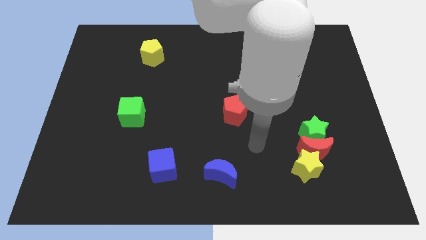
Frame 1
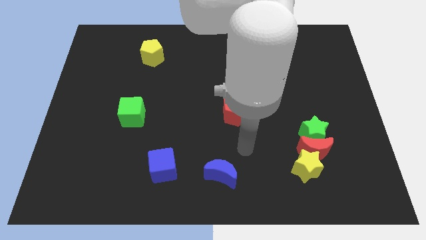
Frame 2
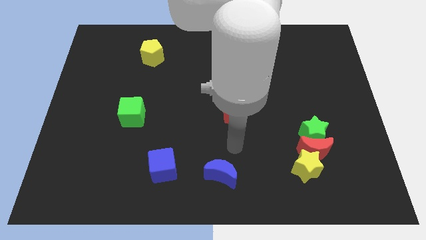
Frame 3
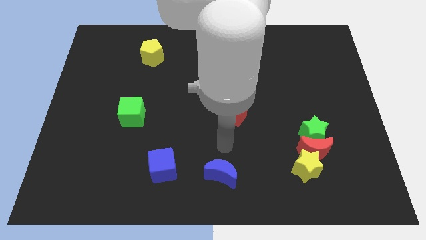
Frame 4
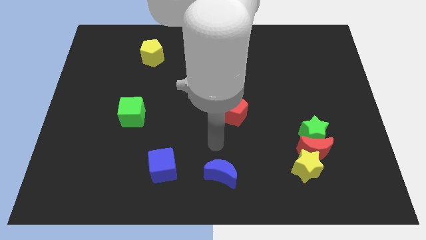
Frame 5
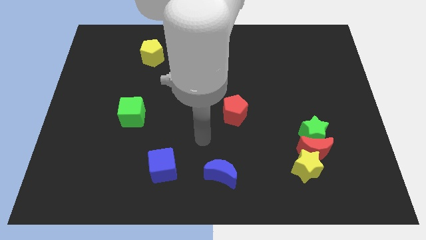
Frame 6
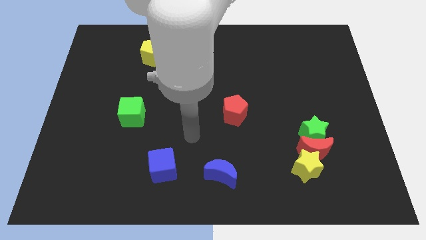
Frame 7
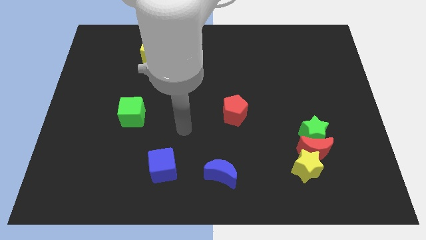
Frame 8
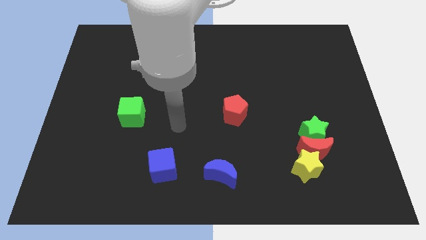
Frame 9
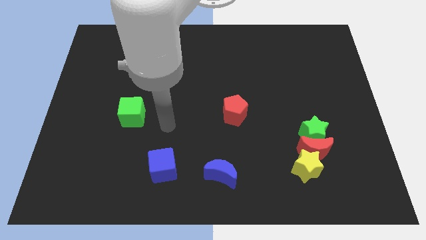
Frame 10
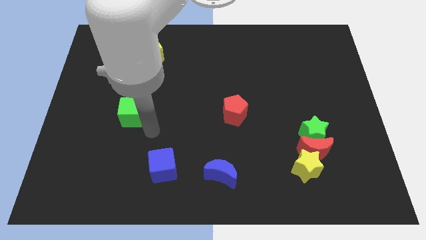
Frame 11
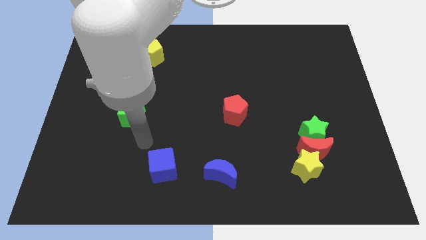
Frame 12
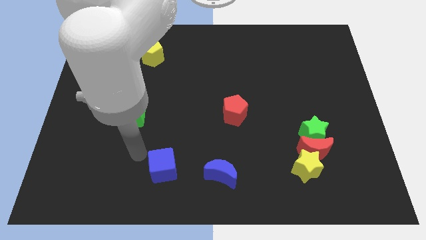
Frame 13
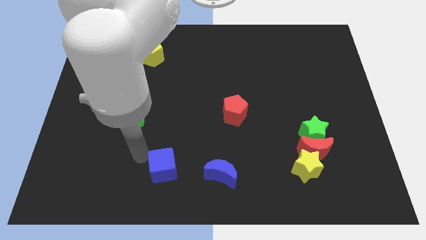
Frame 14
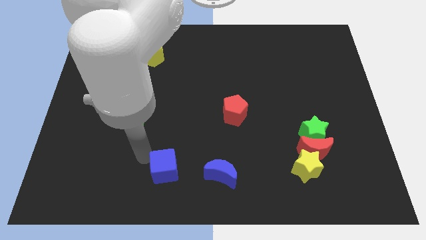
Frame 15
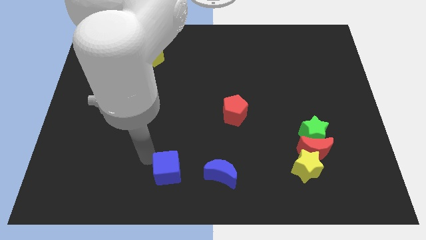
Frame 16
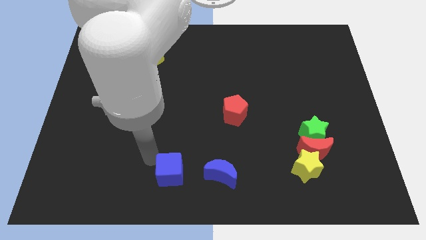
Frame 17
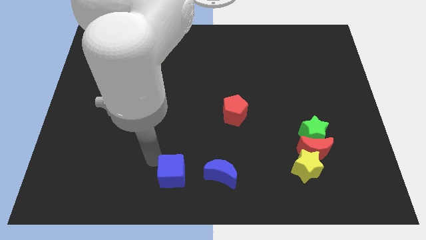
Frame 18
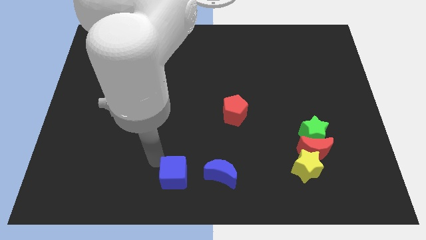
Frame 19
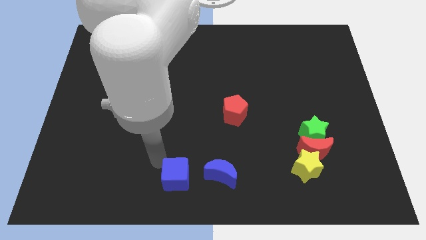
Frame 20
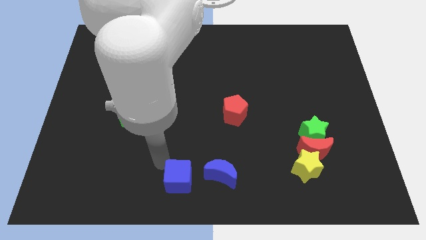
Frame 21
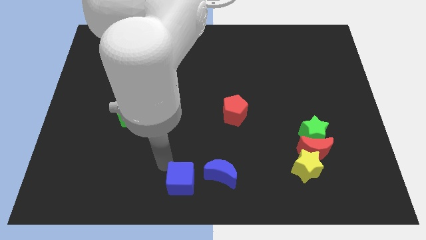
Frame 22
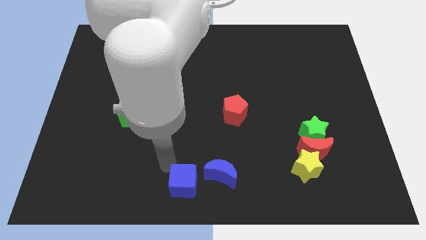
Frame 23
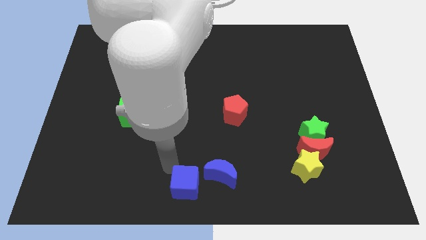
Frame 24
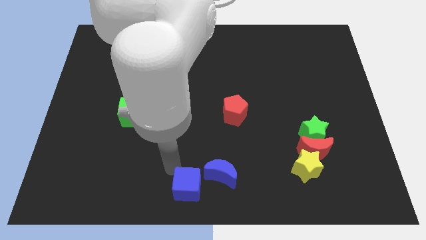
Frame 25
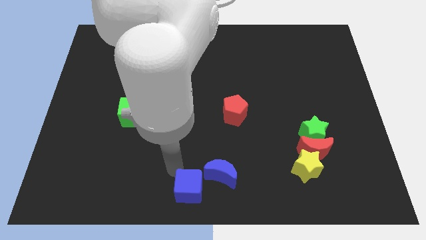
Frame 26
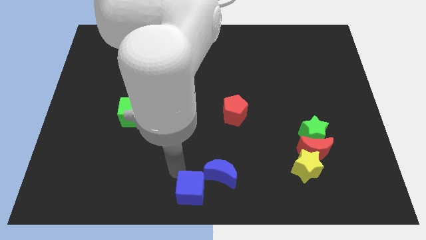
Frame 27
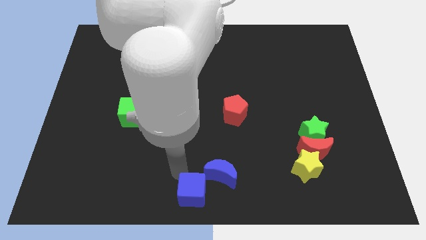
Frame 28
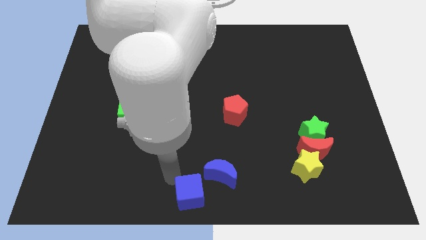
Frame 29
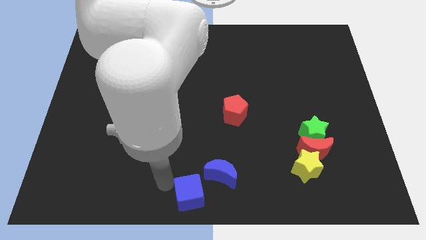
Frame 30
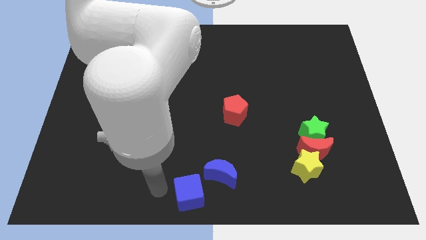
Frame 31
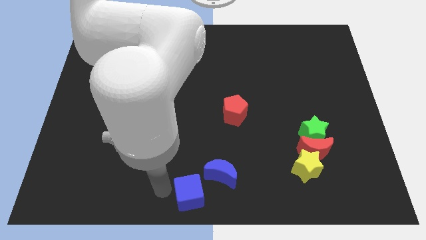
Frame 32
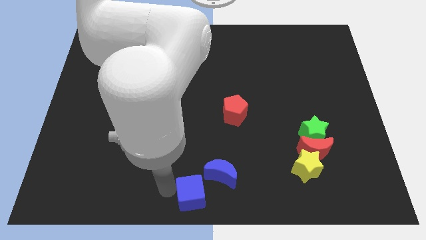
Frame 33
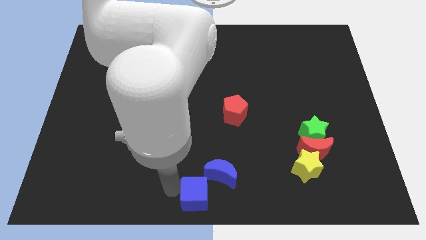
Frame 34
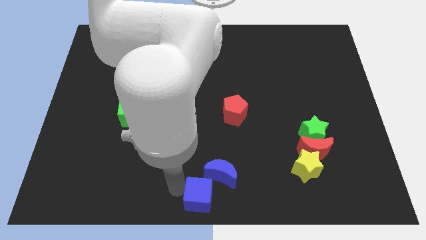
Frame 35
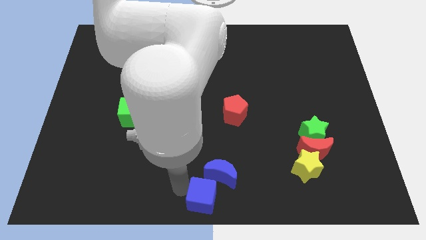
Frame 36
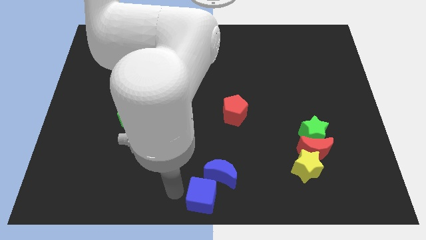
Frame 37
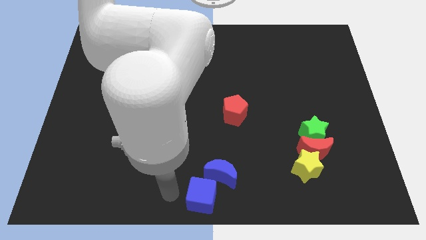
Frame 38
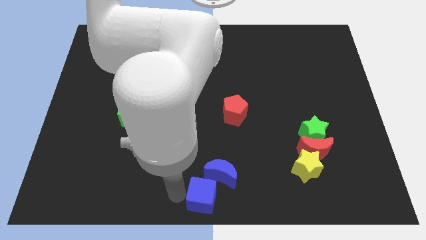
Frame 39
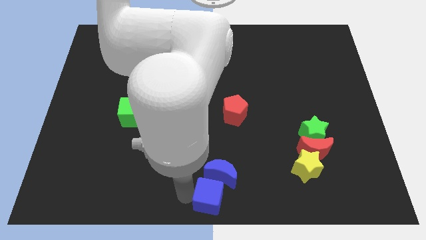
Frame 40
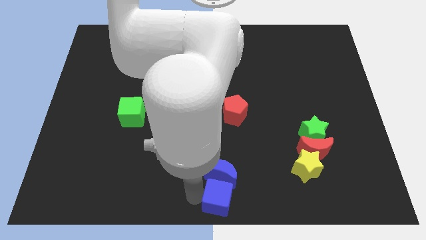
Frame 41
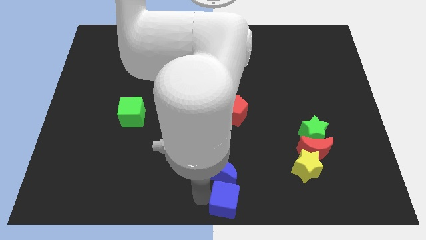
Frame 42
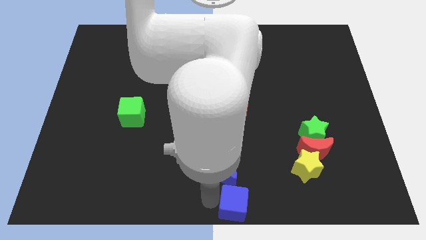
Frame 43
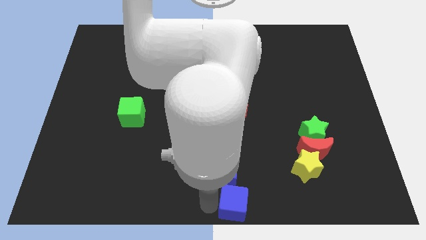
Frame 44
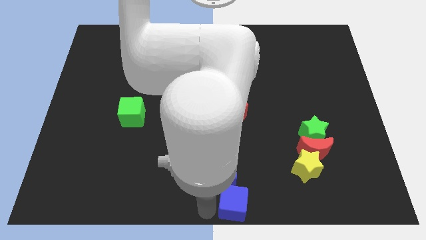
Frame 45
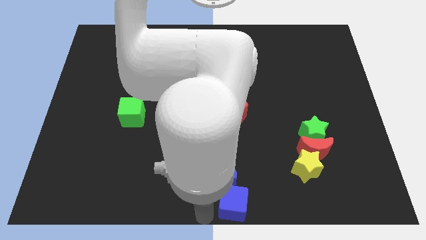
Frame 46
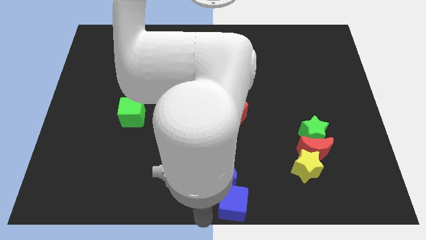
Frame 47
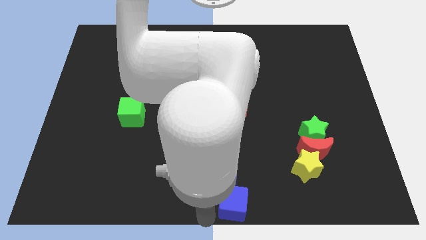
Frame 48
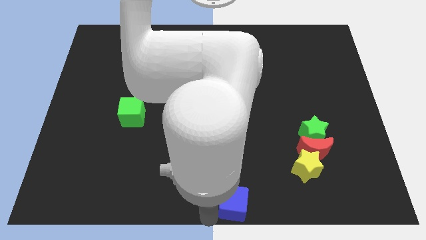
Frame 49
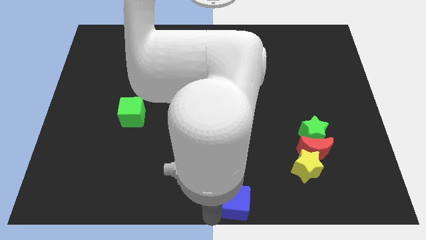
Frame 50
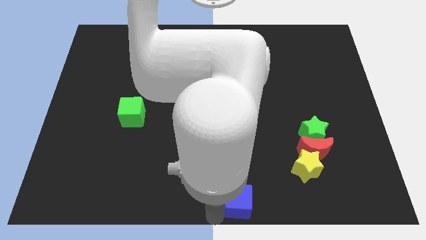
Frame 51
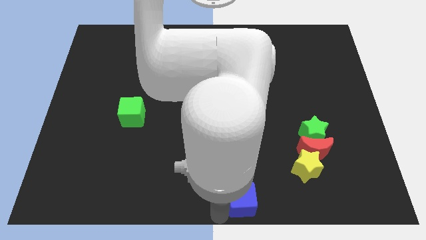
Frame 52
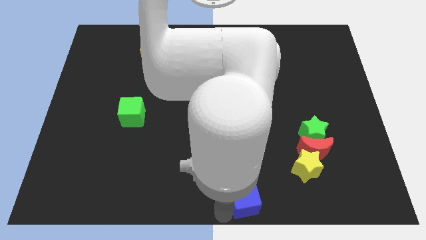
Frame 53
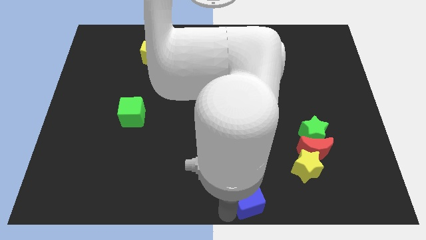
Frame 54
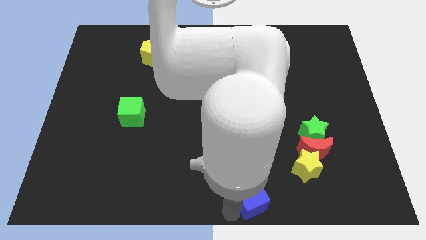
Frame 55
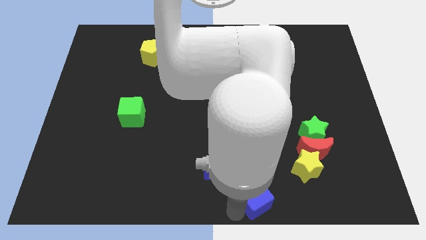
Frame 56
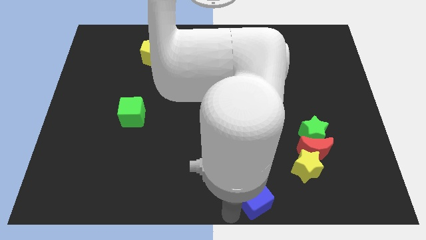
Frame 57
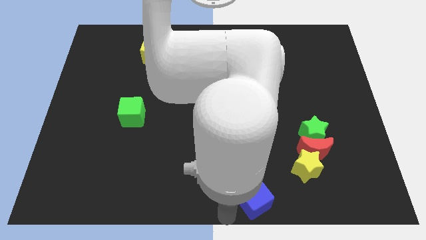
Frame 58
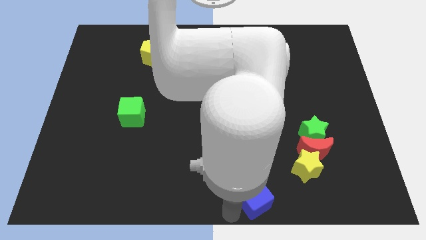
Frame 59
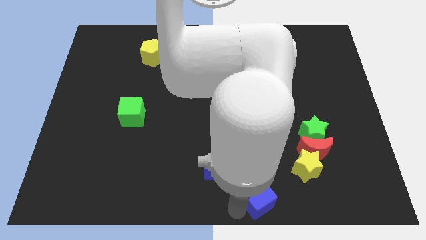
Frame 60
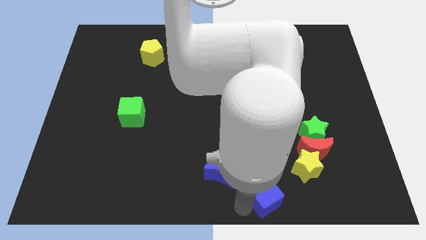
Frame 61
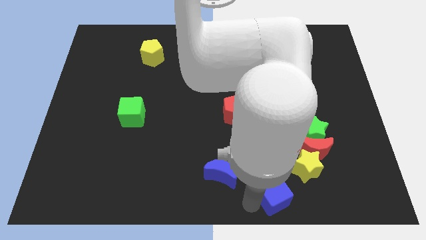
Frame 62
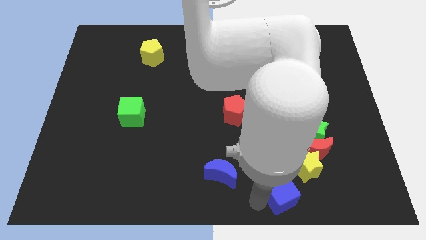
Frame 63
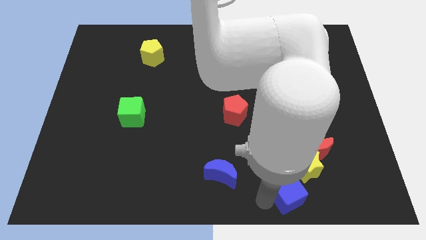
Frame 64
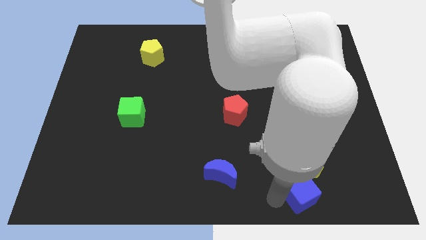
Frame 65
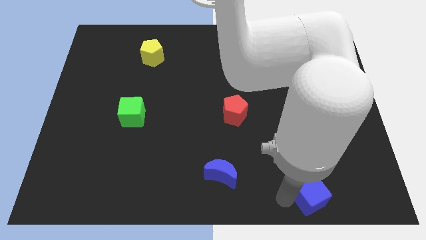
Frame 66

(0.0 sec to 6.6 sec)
slide the blue cube to the bottom side of the green star

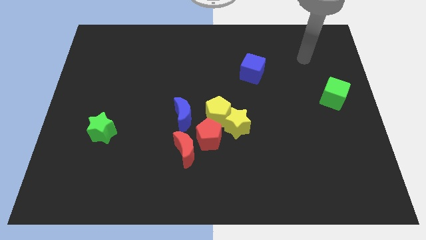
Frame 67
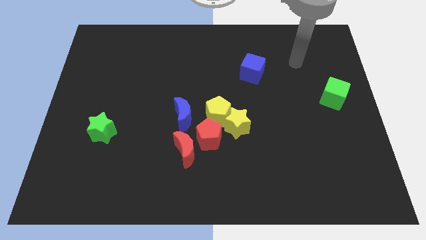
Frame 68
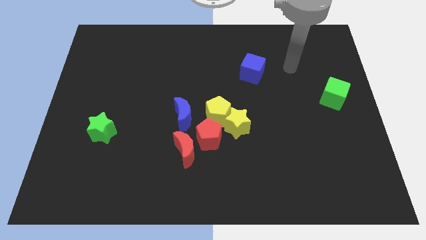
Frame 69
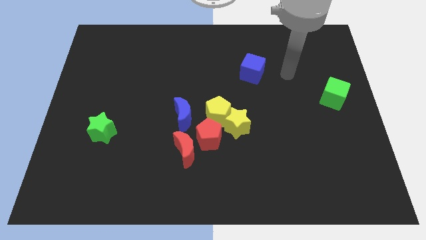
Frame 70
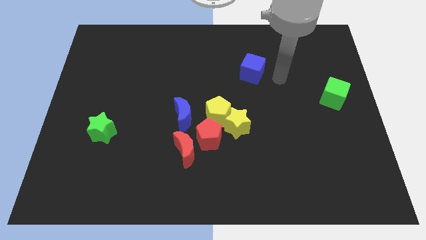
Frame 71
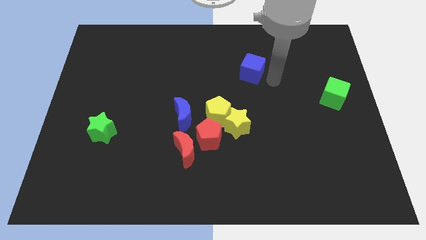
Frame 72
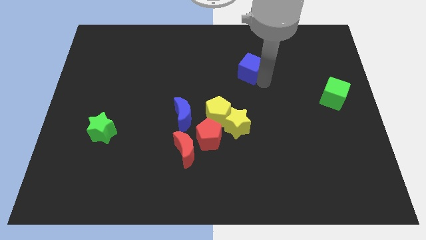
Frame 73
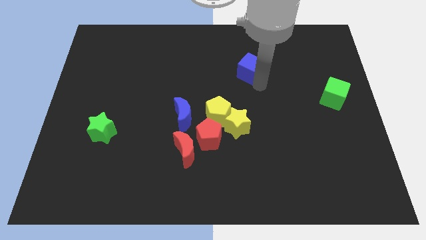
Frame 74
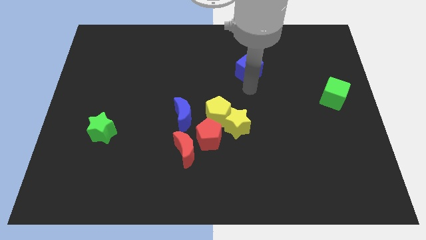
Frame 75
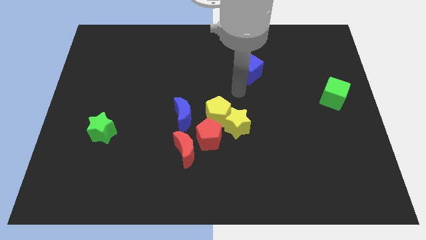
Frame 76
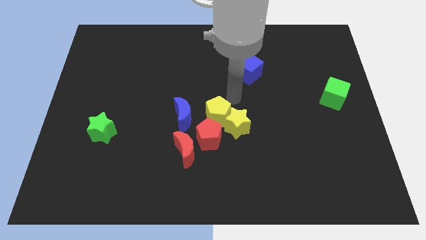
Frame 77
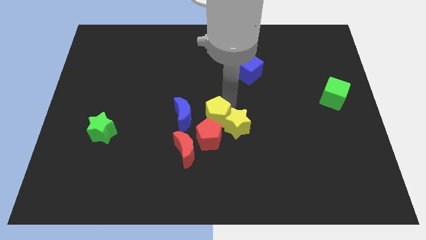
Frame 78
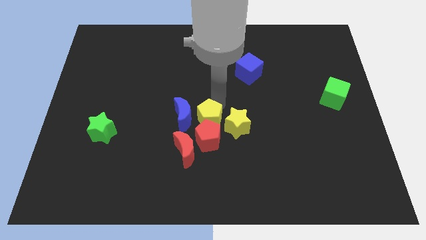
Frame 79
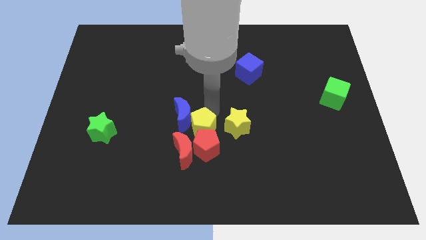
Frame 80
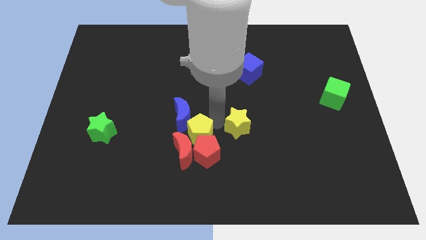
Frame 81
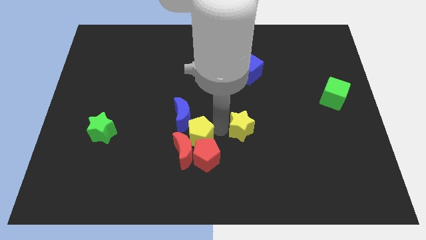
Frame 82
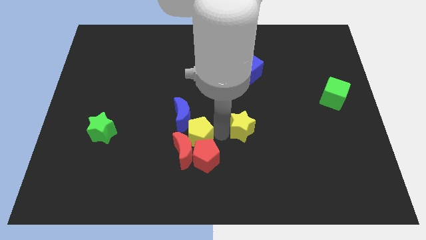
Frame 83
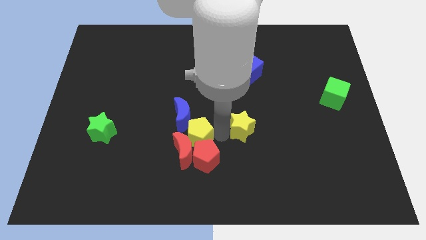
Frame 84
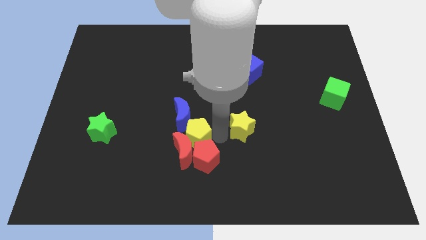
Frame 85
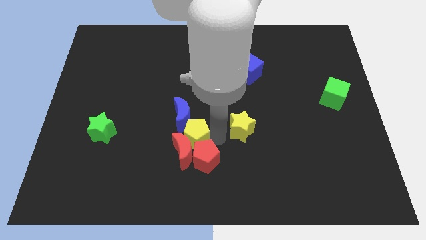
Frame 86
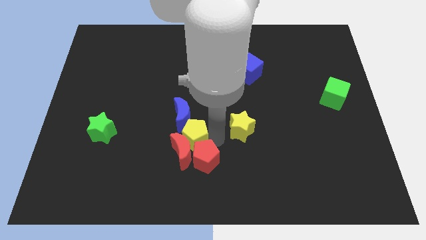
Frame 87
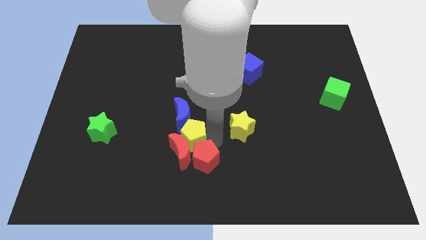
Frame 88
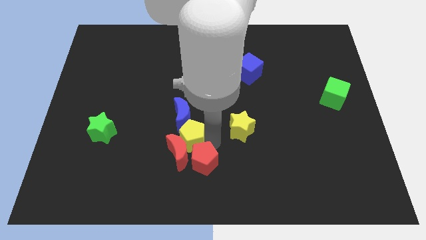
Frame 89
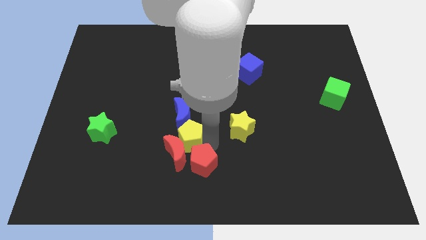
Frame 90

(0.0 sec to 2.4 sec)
slide the red pentagon to the bottom side of the blue moon
